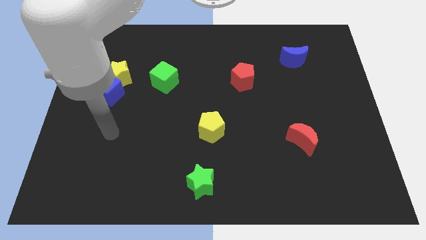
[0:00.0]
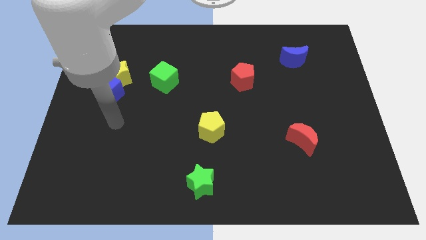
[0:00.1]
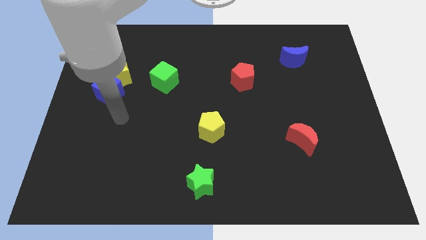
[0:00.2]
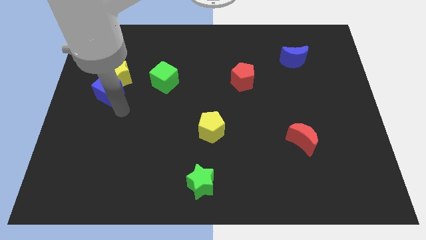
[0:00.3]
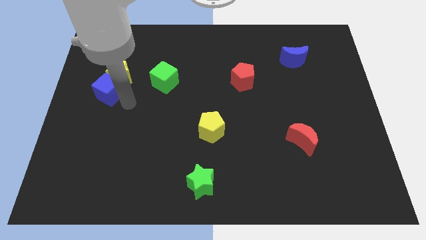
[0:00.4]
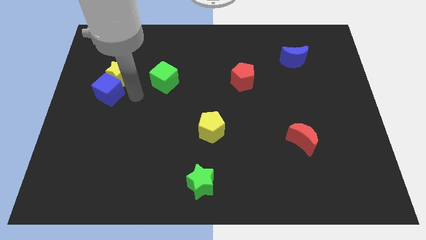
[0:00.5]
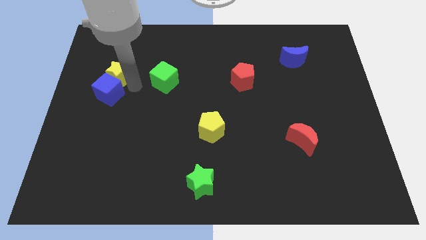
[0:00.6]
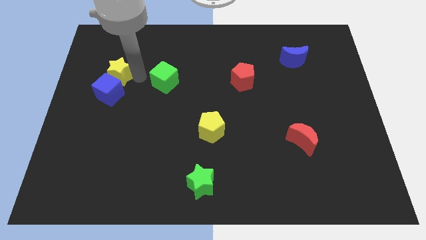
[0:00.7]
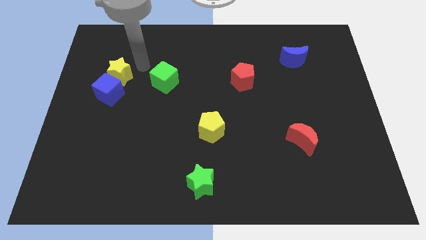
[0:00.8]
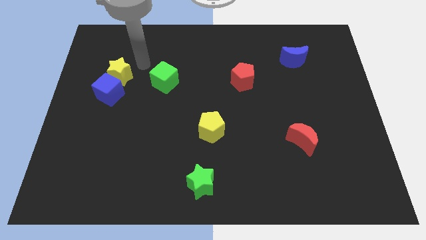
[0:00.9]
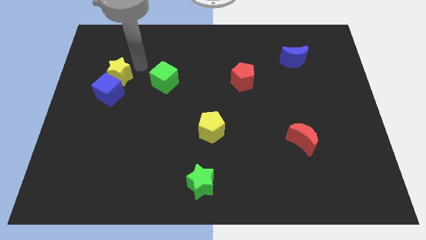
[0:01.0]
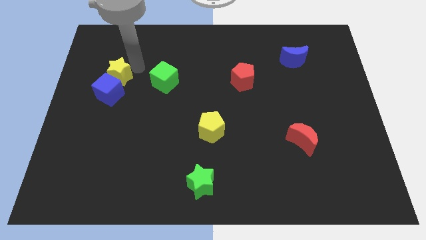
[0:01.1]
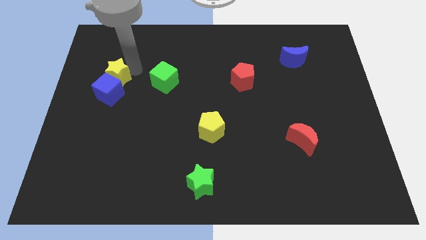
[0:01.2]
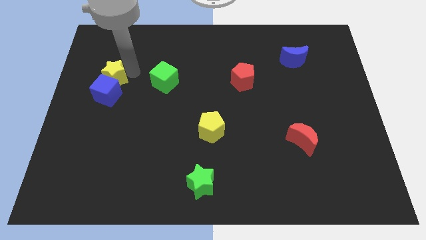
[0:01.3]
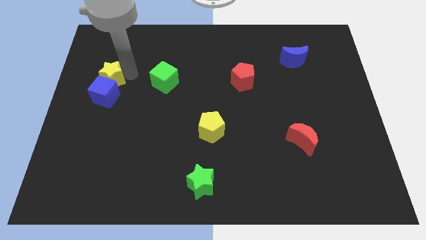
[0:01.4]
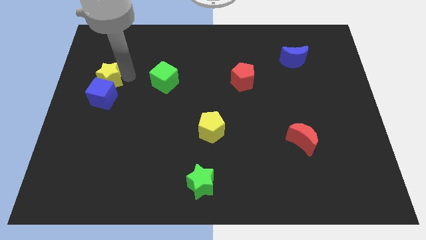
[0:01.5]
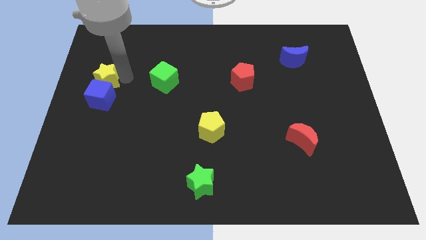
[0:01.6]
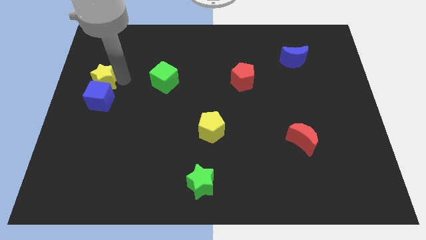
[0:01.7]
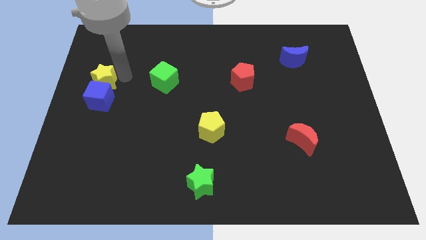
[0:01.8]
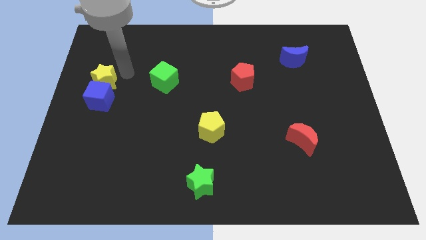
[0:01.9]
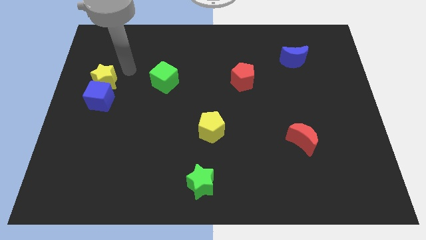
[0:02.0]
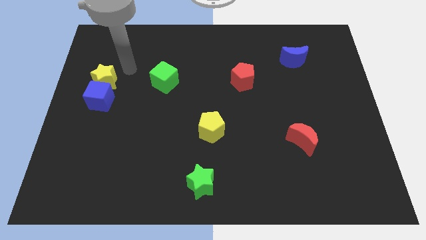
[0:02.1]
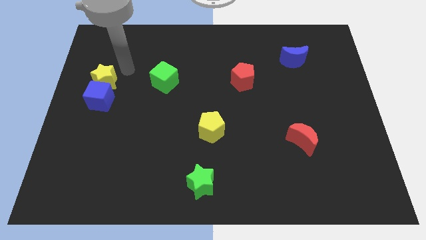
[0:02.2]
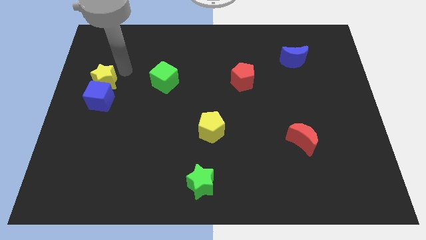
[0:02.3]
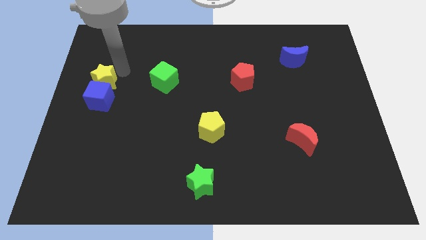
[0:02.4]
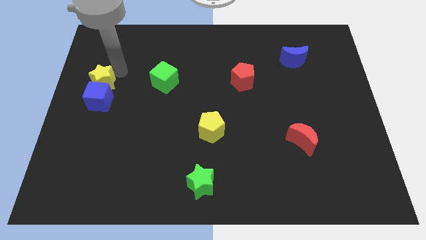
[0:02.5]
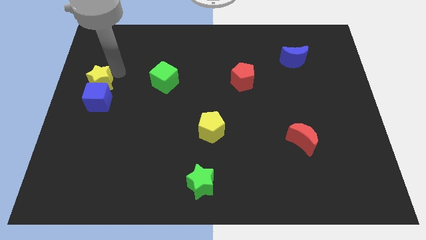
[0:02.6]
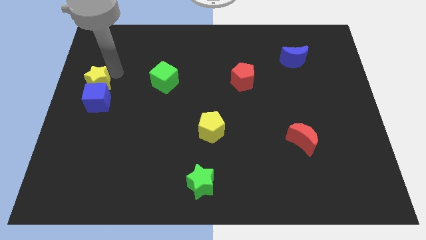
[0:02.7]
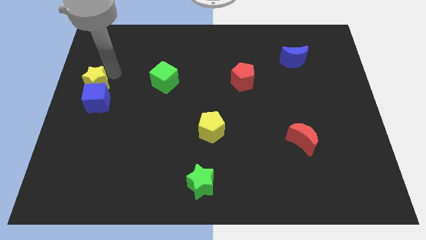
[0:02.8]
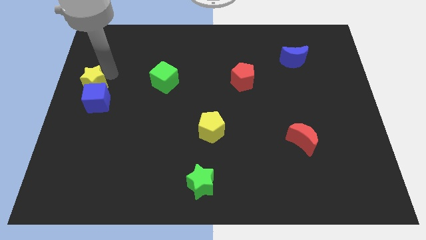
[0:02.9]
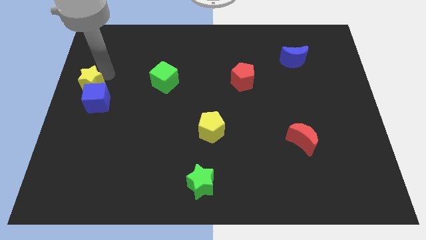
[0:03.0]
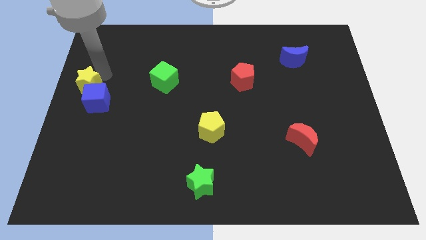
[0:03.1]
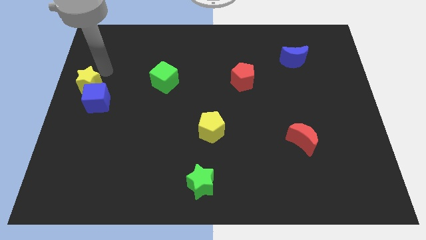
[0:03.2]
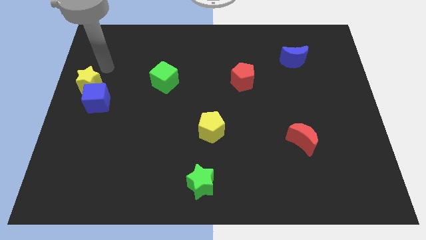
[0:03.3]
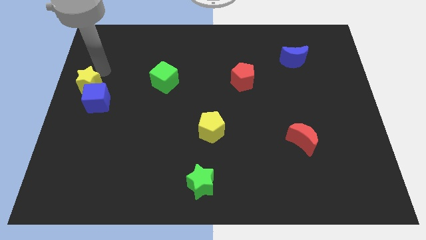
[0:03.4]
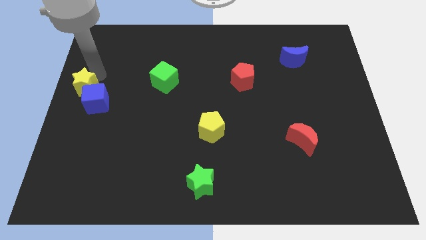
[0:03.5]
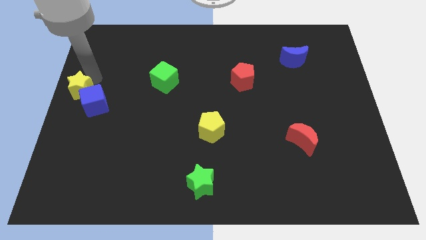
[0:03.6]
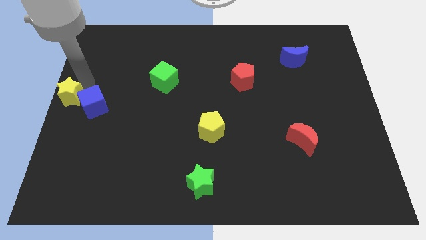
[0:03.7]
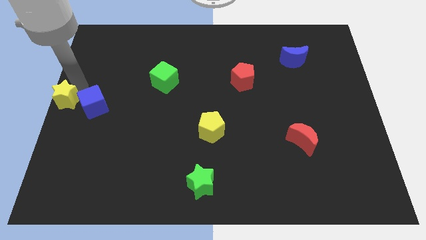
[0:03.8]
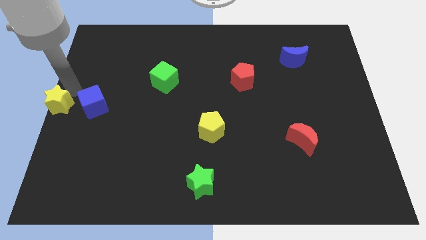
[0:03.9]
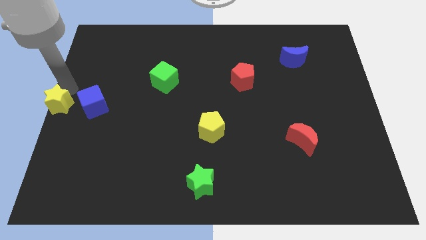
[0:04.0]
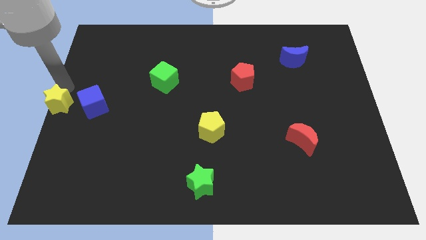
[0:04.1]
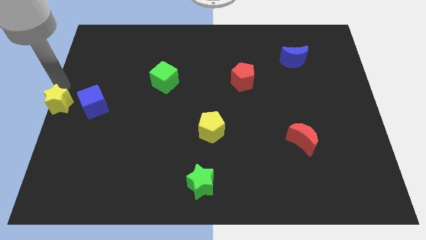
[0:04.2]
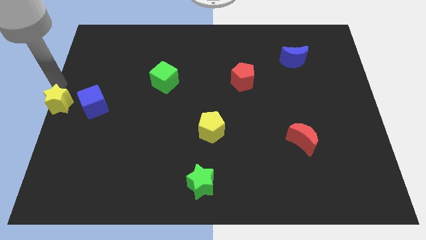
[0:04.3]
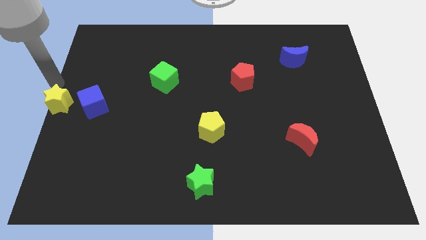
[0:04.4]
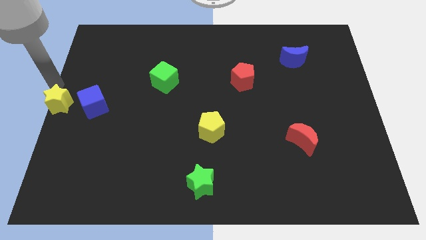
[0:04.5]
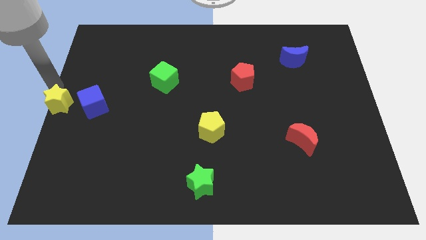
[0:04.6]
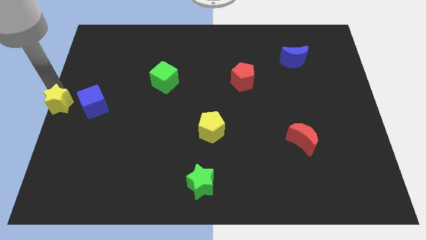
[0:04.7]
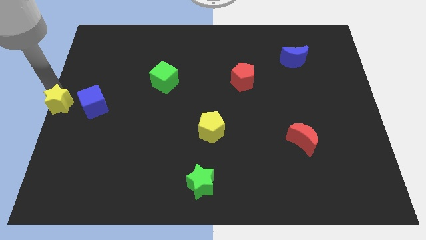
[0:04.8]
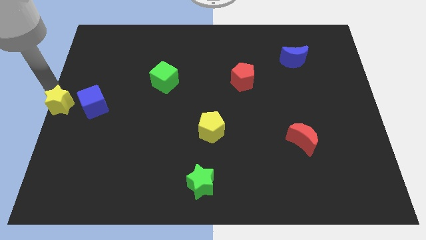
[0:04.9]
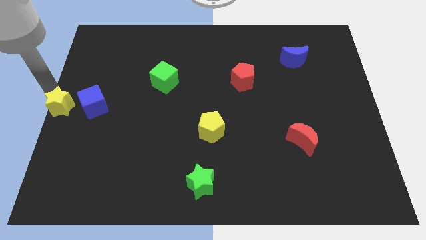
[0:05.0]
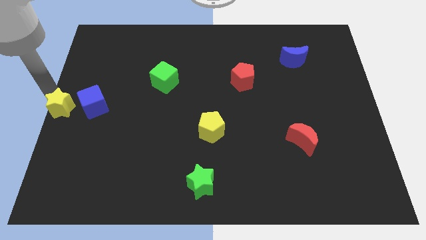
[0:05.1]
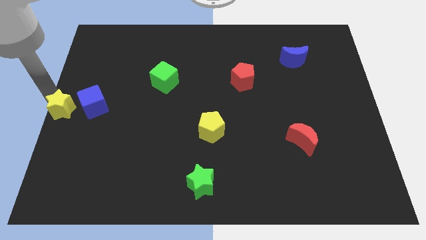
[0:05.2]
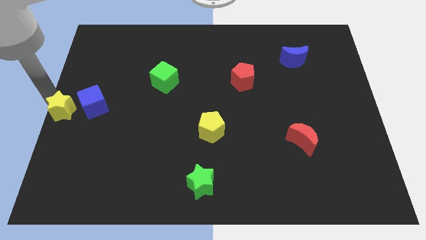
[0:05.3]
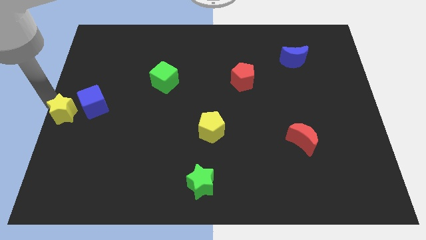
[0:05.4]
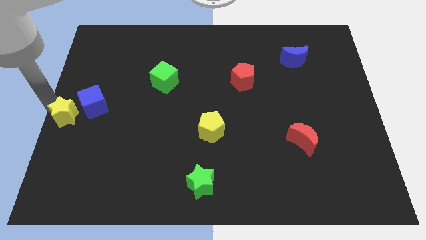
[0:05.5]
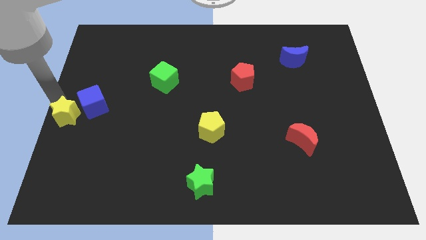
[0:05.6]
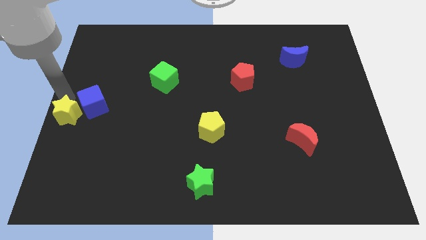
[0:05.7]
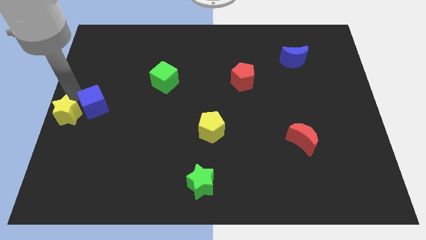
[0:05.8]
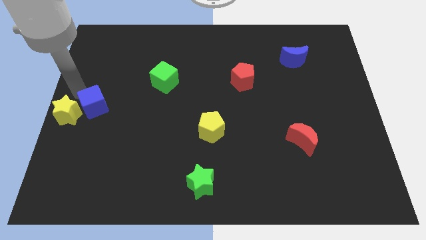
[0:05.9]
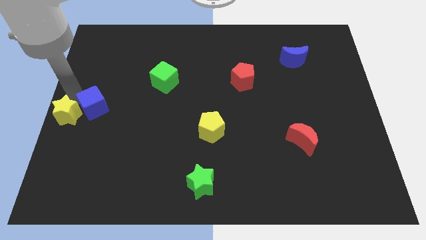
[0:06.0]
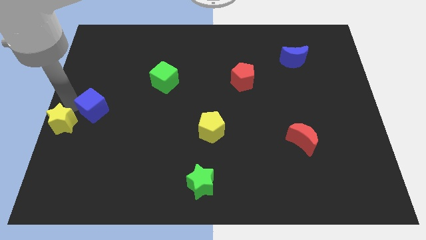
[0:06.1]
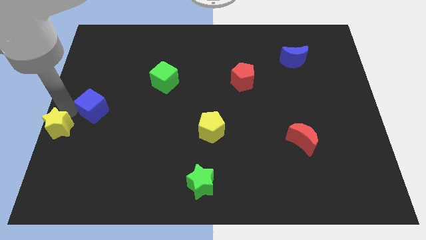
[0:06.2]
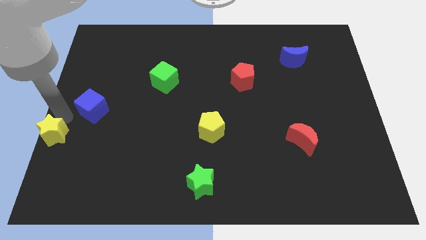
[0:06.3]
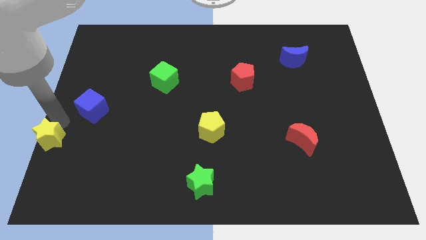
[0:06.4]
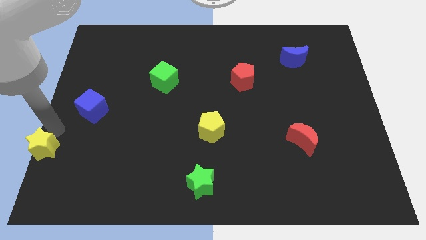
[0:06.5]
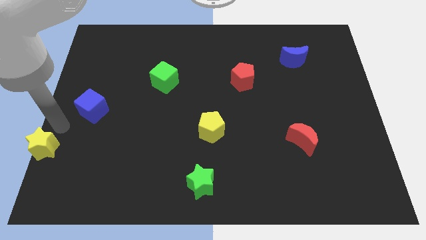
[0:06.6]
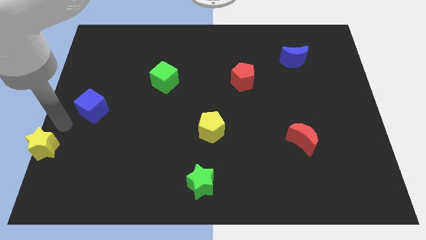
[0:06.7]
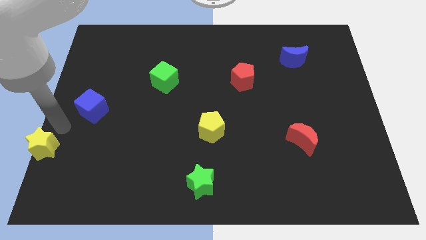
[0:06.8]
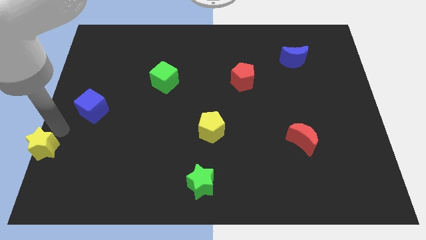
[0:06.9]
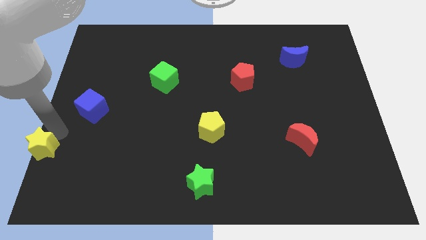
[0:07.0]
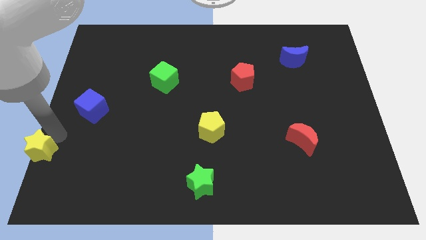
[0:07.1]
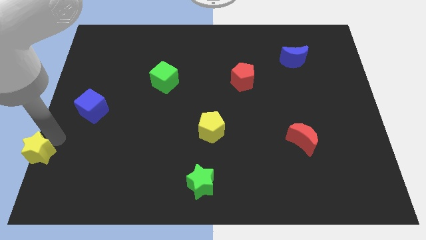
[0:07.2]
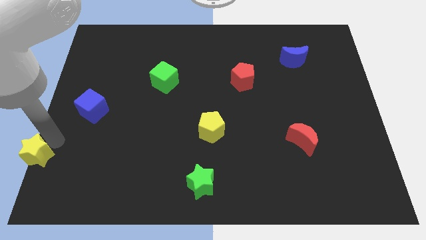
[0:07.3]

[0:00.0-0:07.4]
push the yellow star to the bottom left of the board
